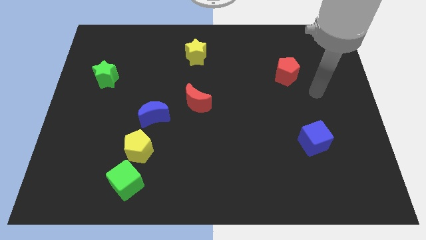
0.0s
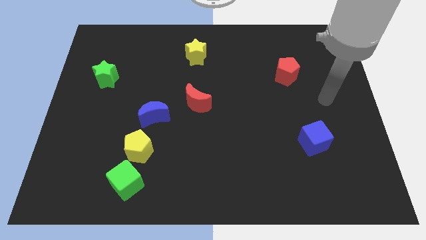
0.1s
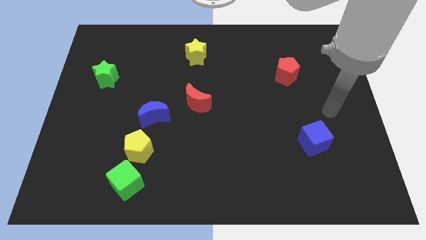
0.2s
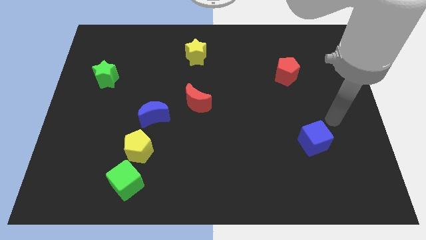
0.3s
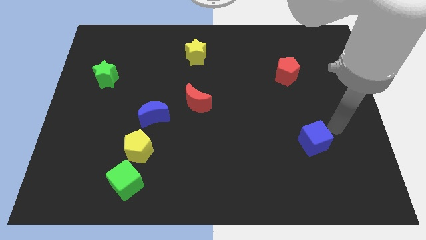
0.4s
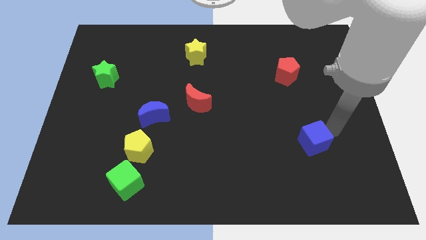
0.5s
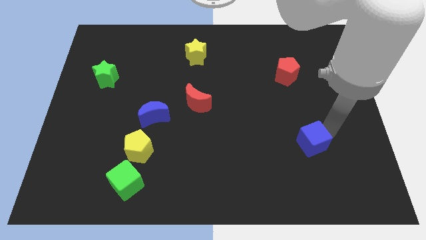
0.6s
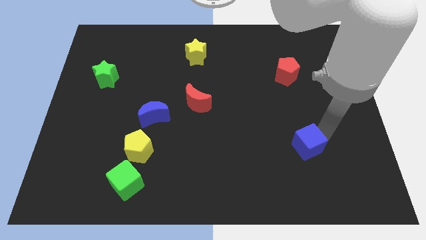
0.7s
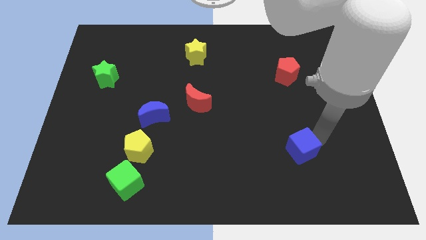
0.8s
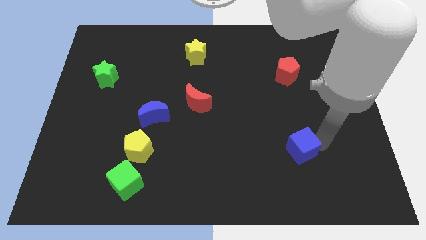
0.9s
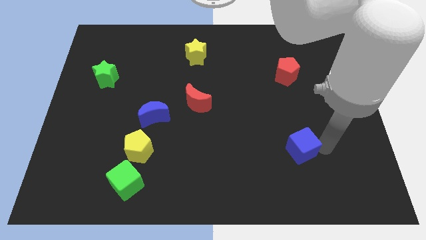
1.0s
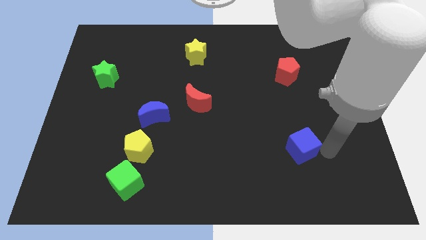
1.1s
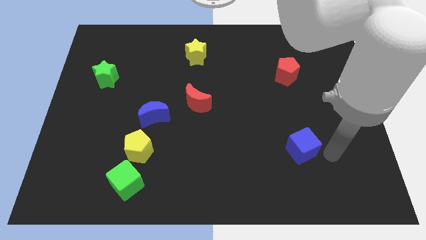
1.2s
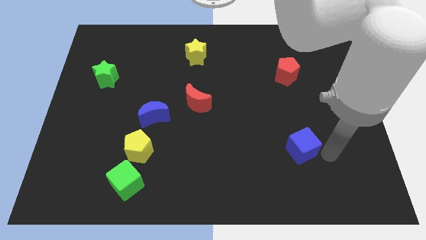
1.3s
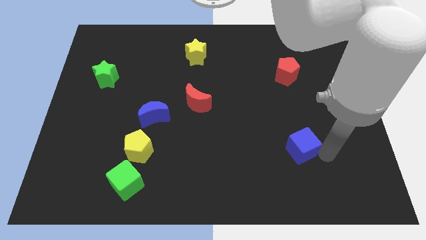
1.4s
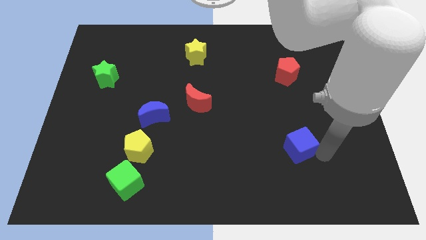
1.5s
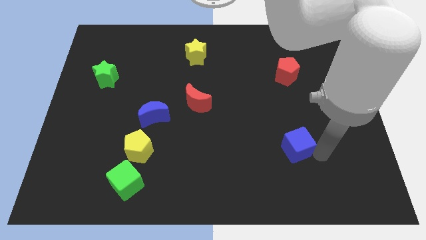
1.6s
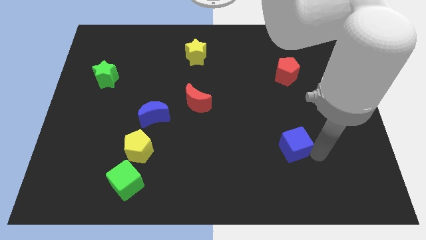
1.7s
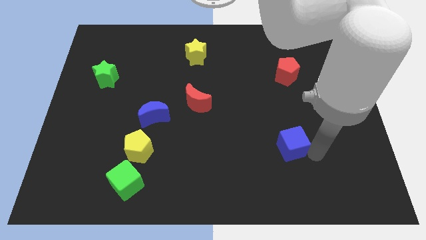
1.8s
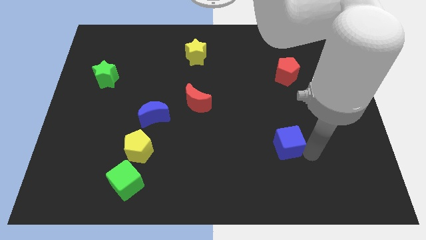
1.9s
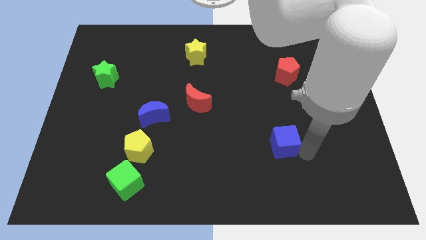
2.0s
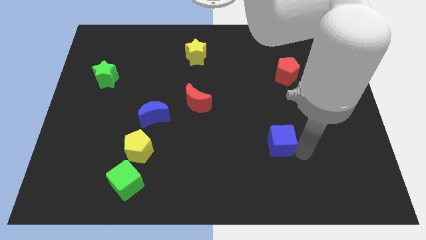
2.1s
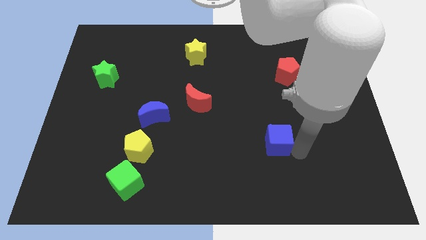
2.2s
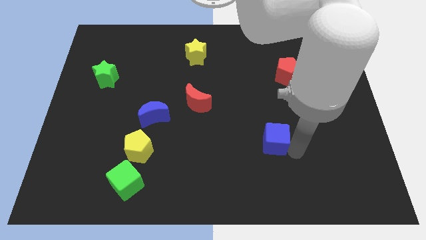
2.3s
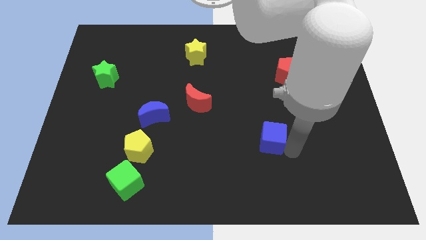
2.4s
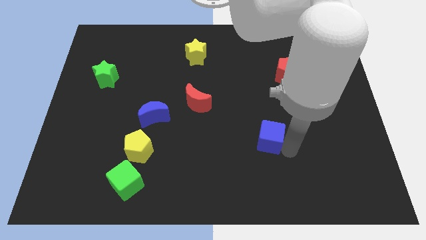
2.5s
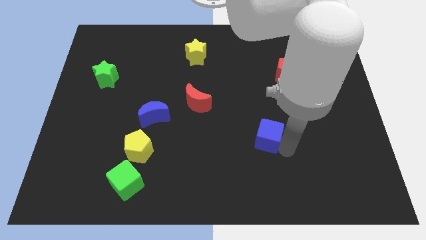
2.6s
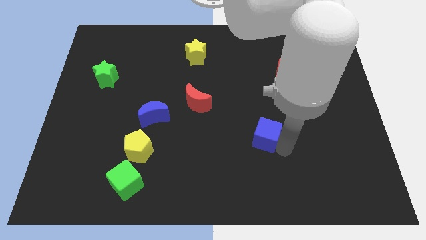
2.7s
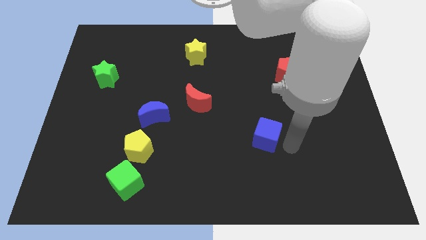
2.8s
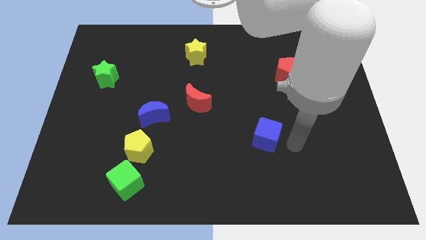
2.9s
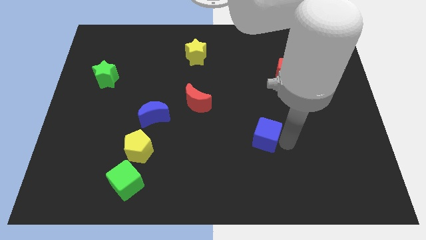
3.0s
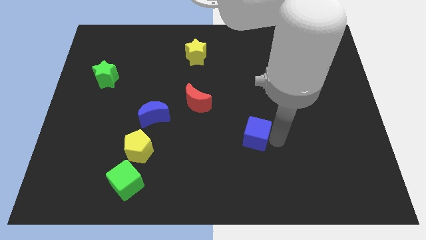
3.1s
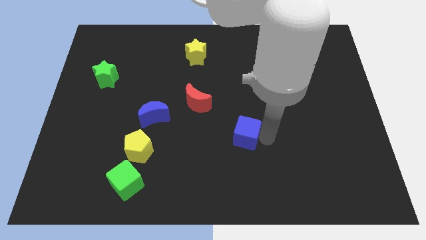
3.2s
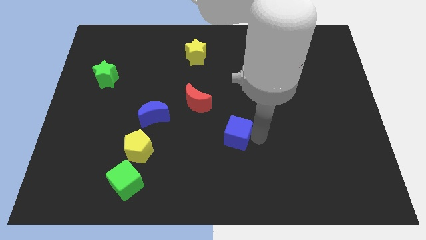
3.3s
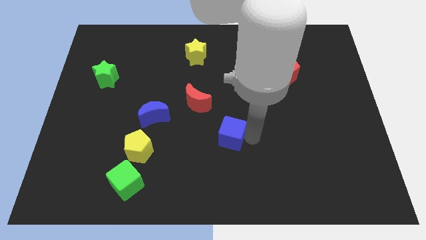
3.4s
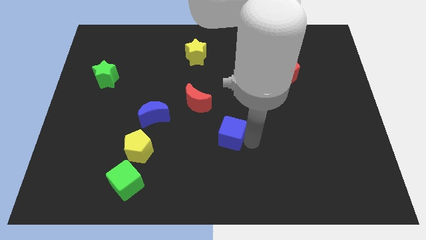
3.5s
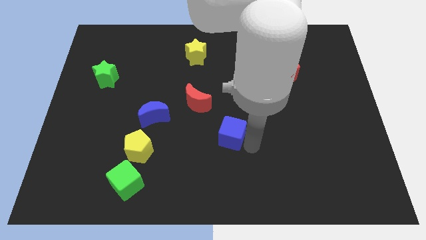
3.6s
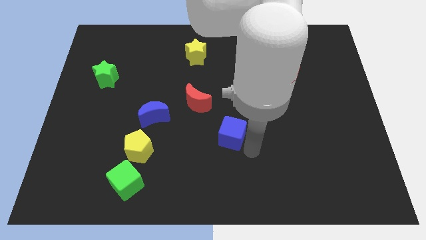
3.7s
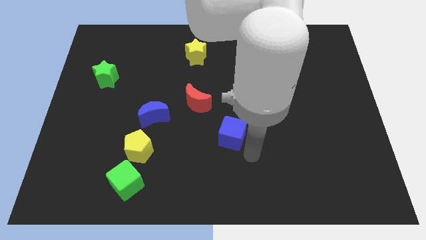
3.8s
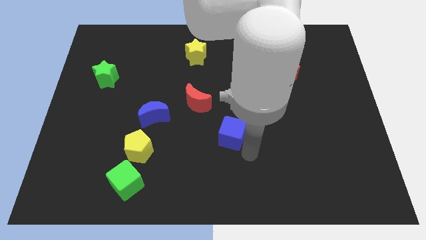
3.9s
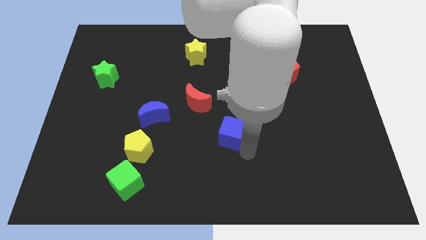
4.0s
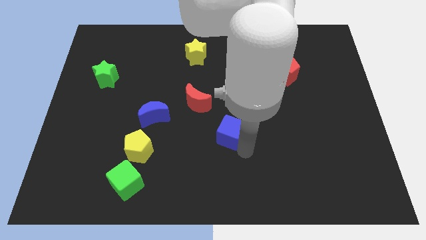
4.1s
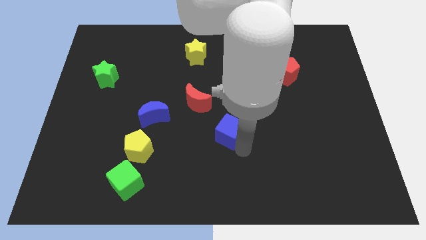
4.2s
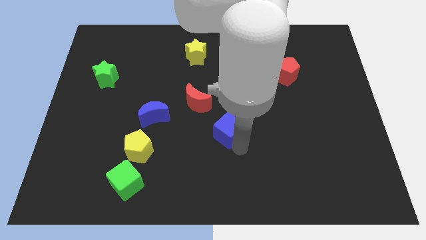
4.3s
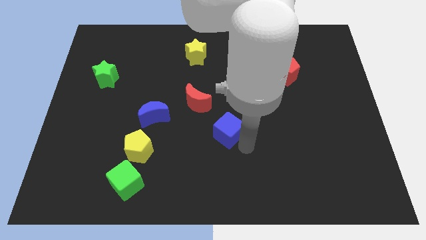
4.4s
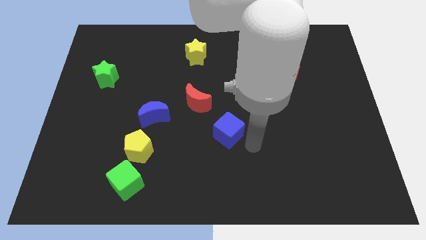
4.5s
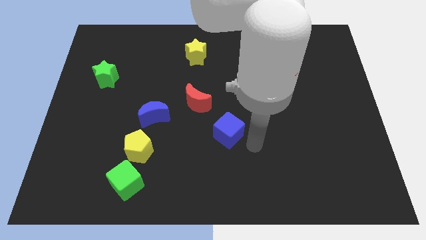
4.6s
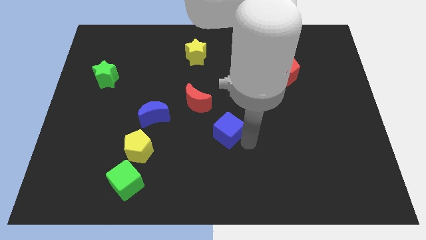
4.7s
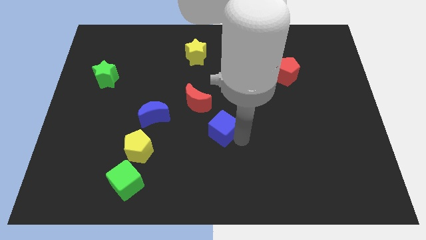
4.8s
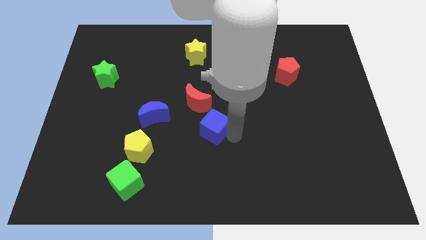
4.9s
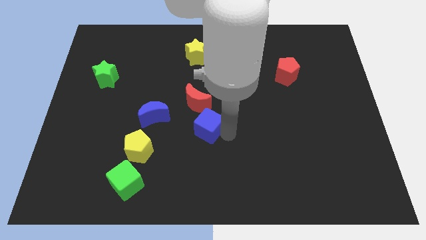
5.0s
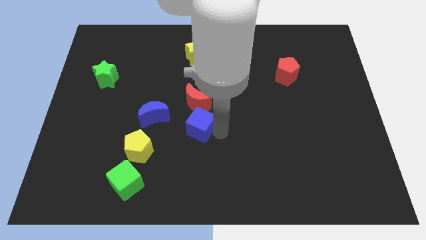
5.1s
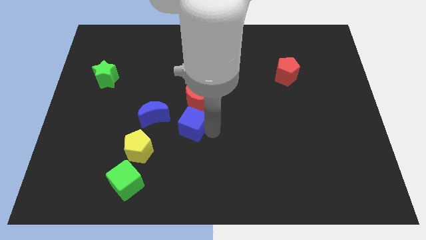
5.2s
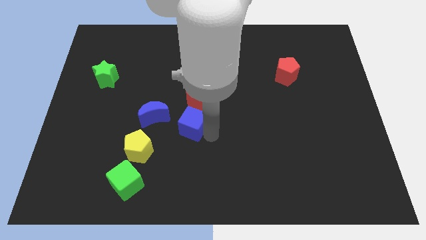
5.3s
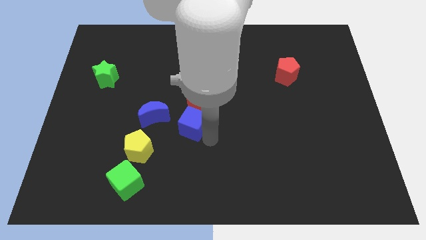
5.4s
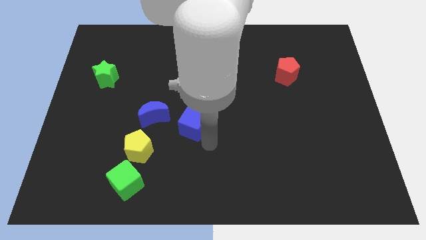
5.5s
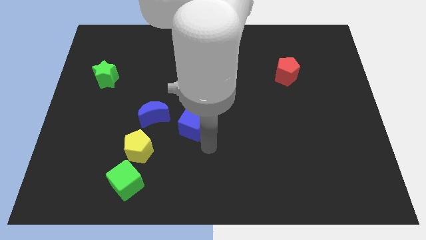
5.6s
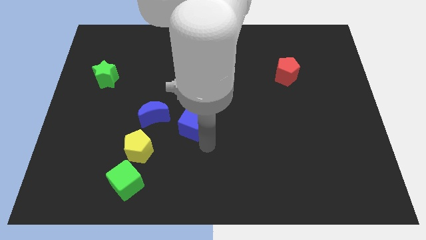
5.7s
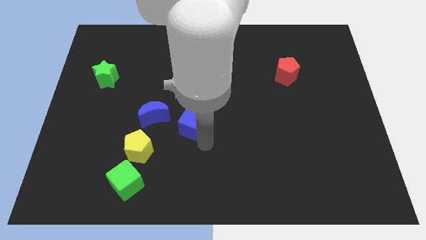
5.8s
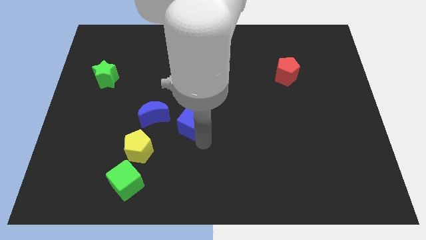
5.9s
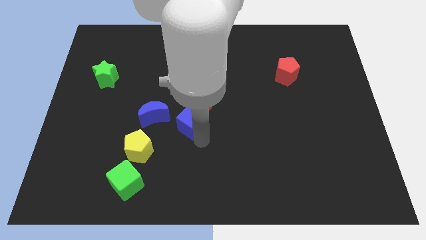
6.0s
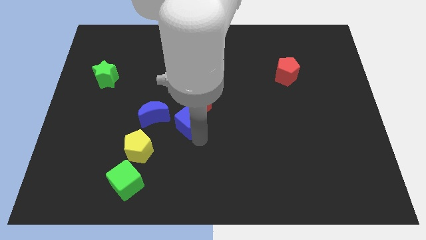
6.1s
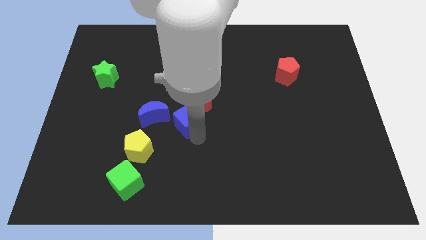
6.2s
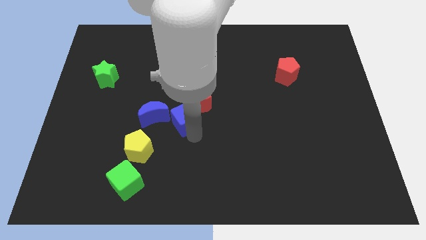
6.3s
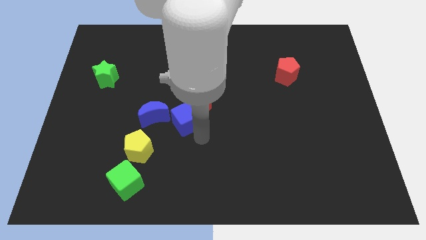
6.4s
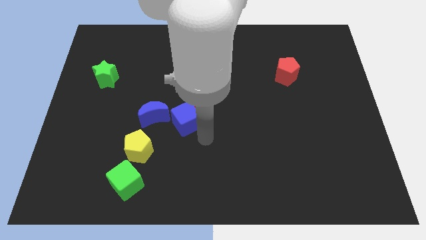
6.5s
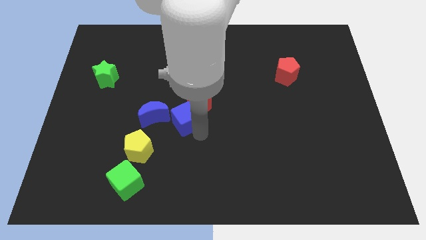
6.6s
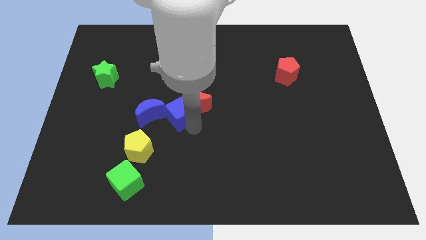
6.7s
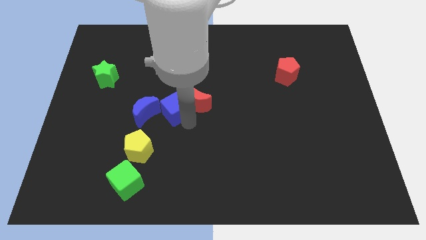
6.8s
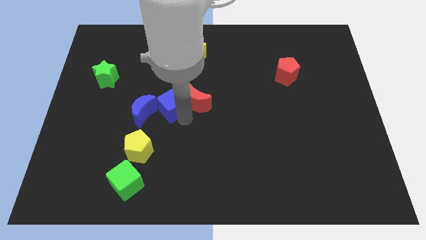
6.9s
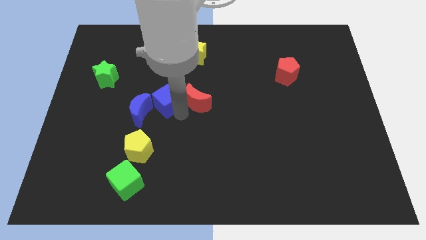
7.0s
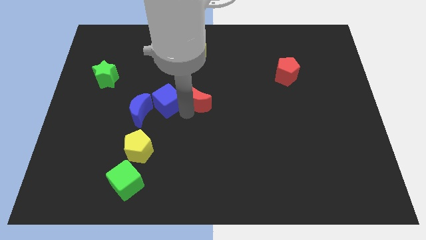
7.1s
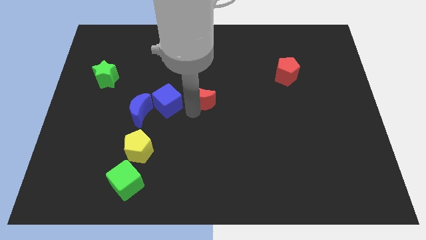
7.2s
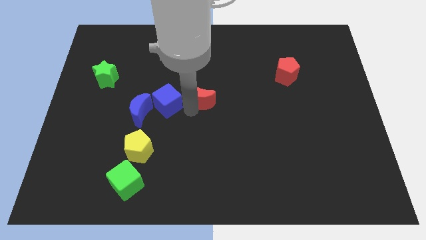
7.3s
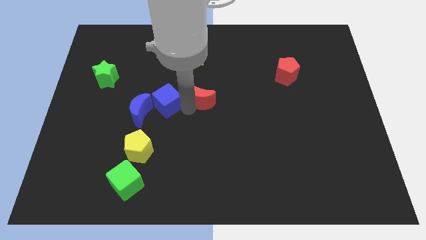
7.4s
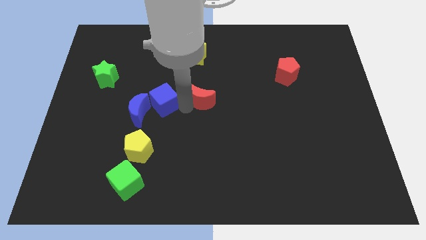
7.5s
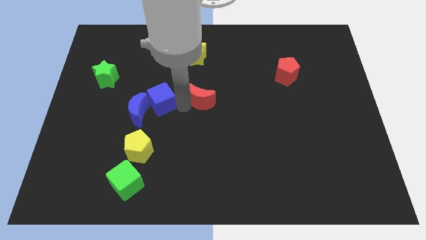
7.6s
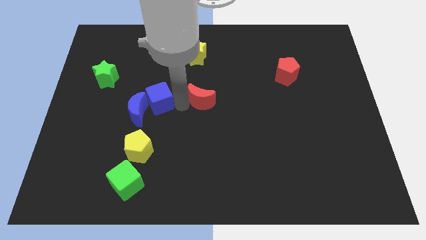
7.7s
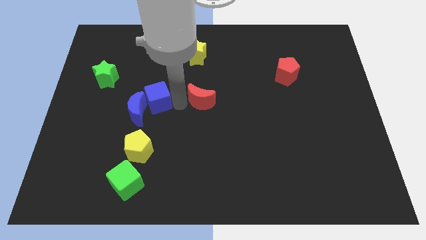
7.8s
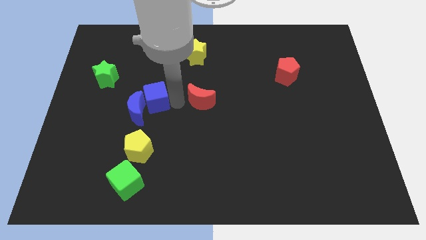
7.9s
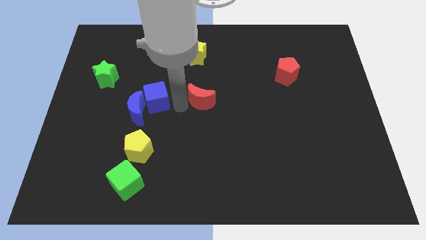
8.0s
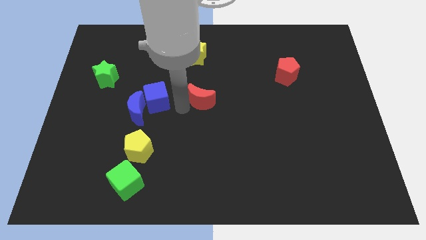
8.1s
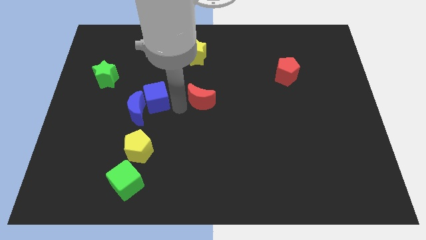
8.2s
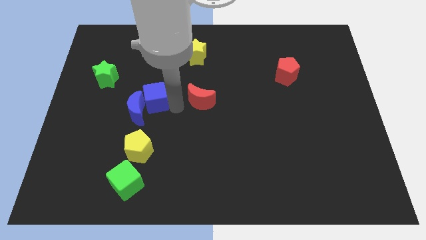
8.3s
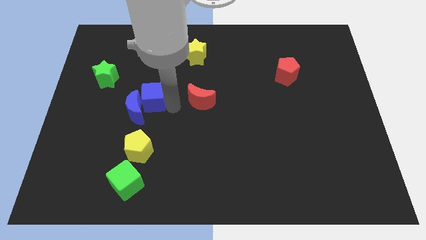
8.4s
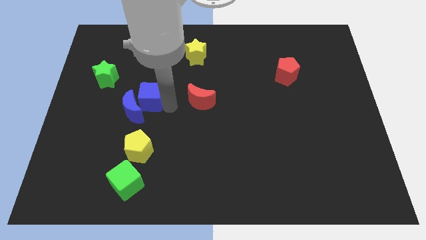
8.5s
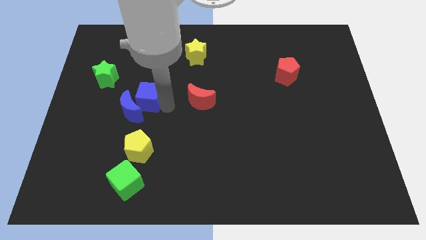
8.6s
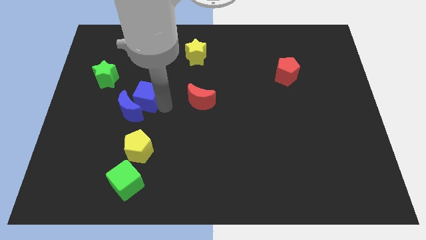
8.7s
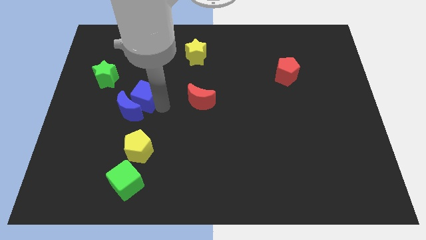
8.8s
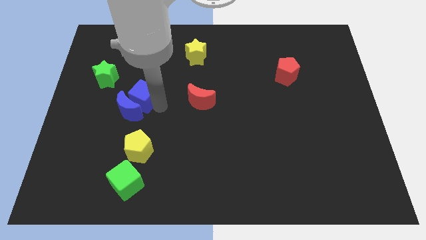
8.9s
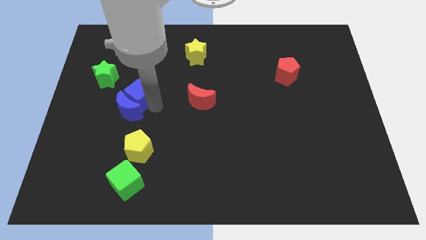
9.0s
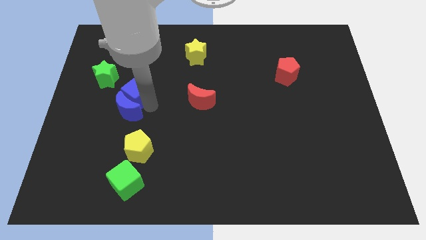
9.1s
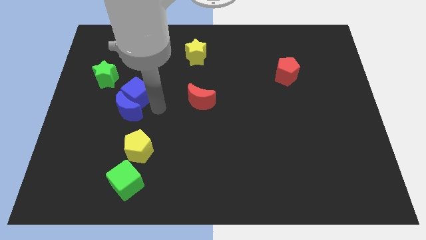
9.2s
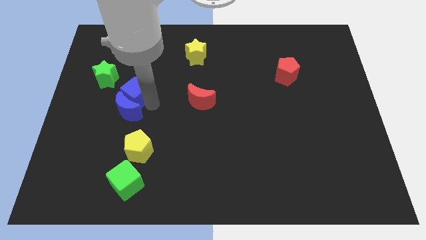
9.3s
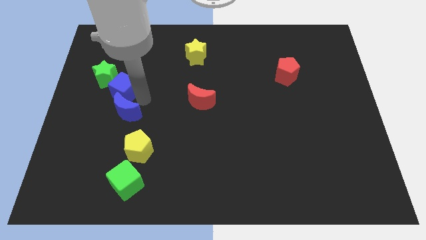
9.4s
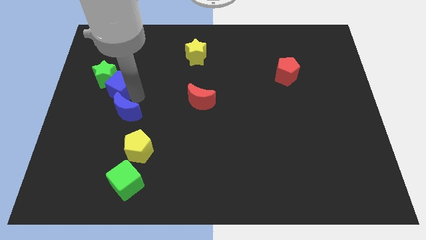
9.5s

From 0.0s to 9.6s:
move the blue cube to the green star
